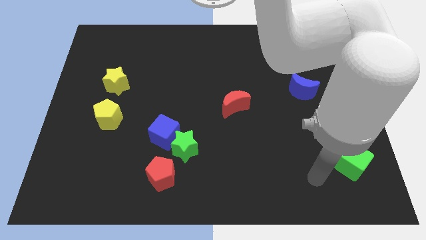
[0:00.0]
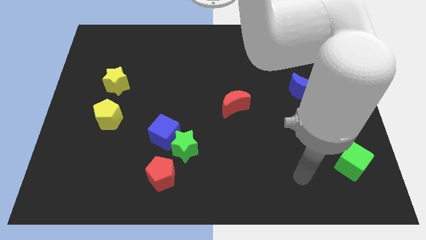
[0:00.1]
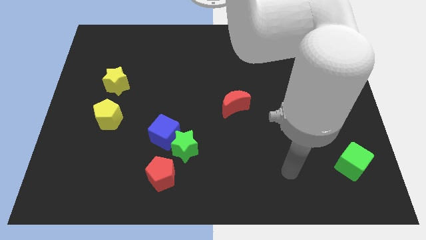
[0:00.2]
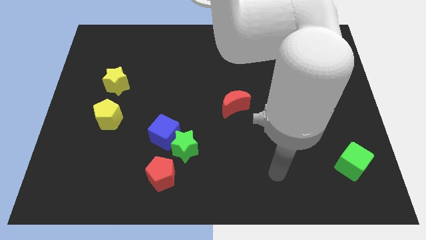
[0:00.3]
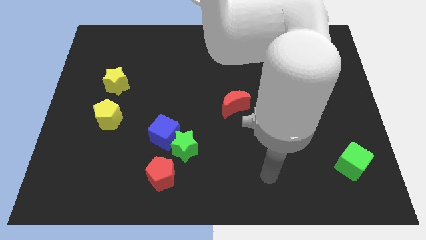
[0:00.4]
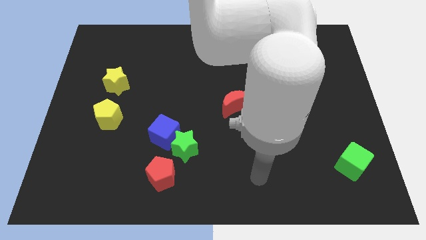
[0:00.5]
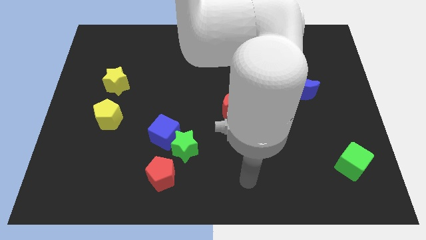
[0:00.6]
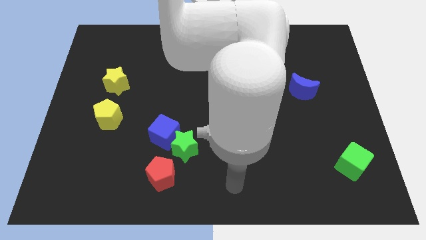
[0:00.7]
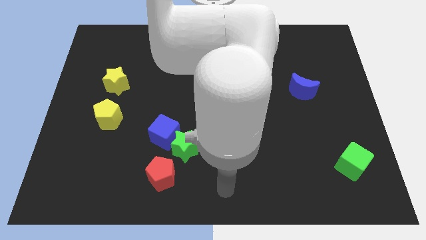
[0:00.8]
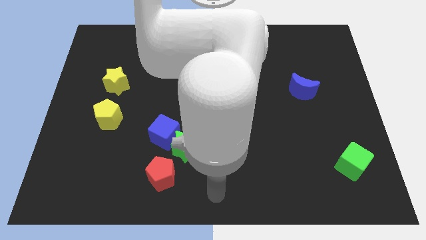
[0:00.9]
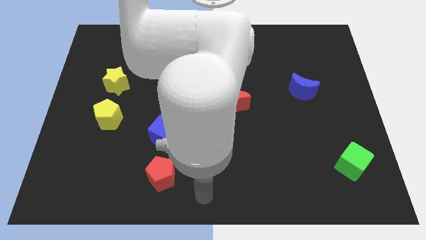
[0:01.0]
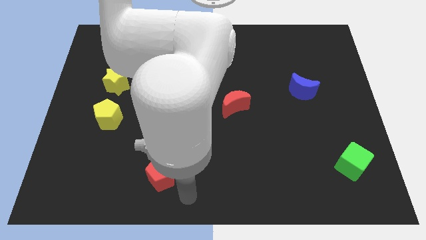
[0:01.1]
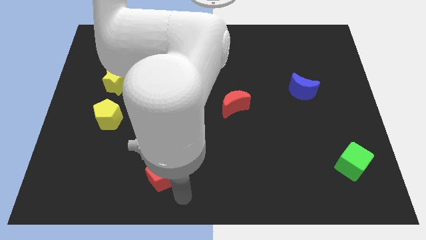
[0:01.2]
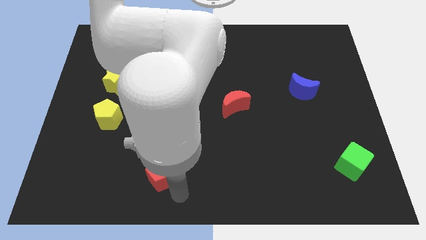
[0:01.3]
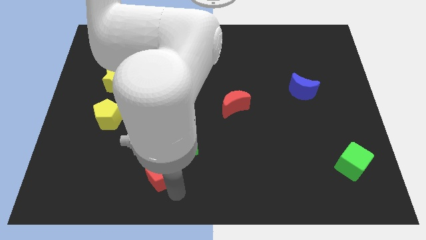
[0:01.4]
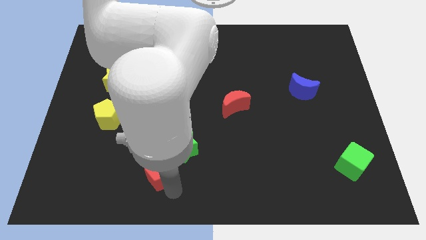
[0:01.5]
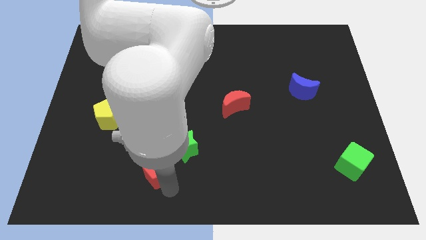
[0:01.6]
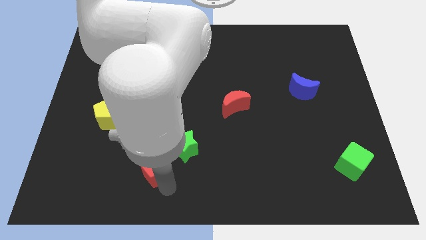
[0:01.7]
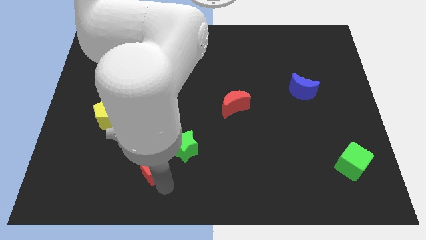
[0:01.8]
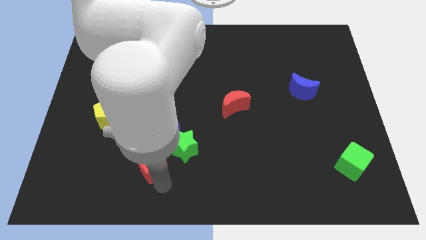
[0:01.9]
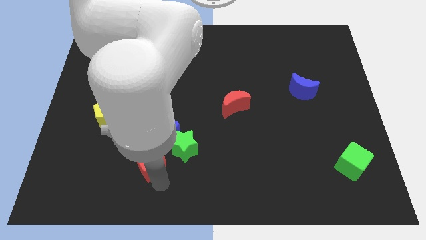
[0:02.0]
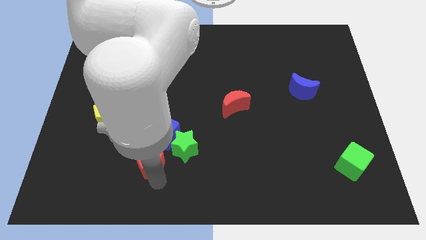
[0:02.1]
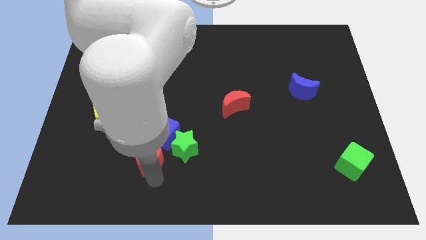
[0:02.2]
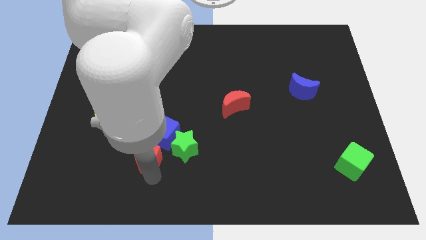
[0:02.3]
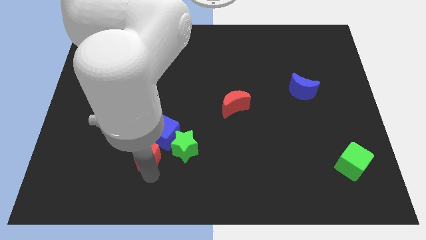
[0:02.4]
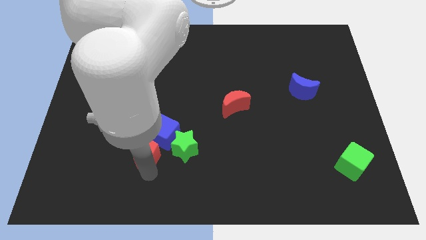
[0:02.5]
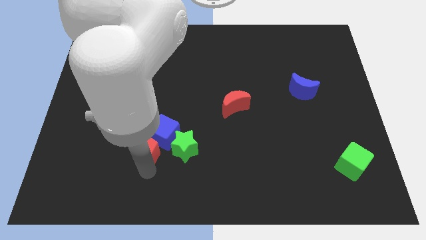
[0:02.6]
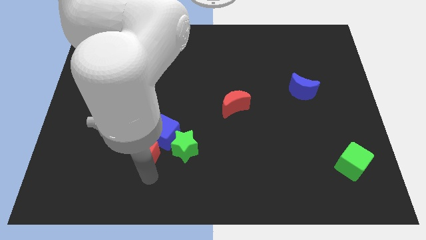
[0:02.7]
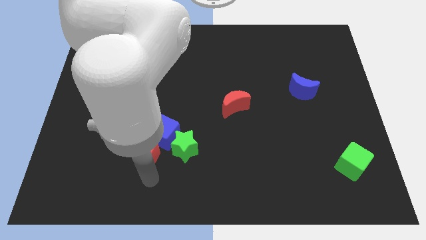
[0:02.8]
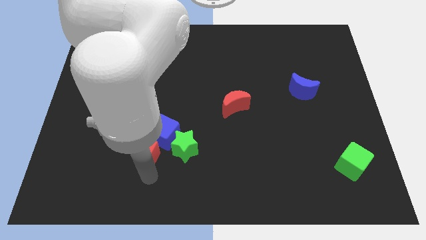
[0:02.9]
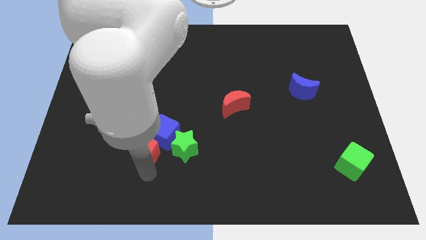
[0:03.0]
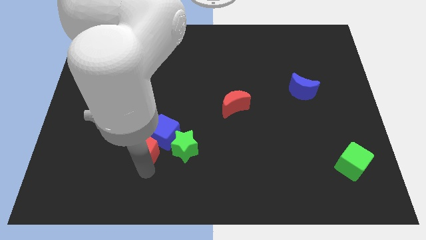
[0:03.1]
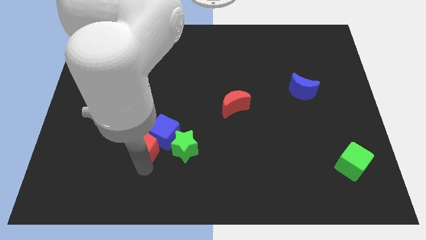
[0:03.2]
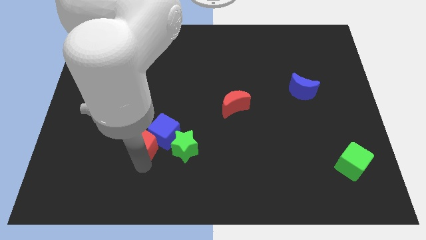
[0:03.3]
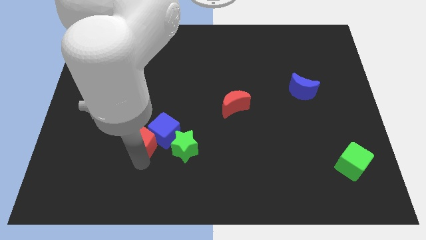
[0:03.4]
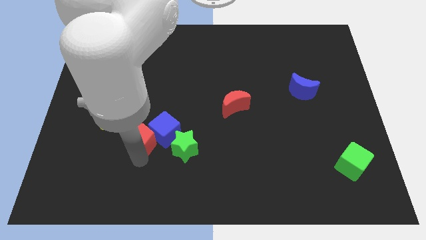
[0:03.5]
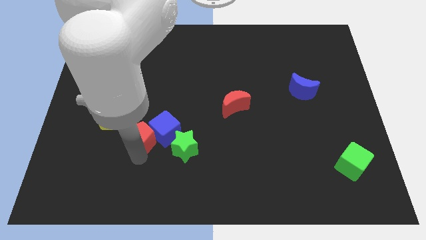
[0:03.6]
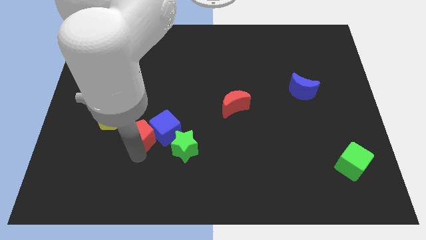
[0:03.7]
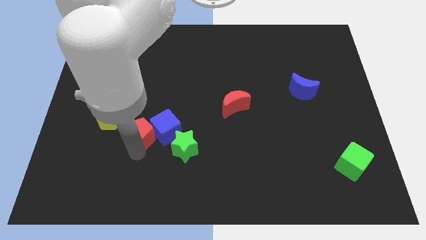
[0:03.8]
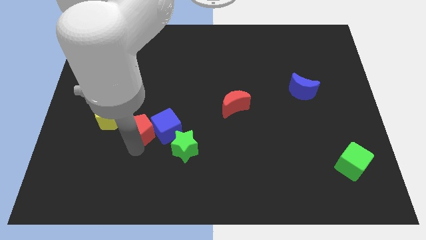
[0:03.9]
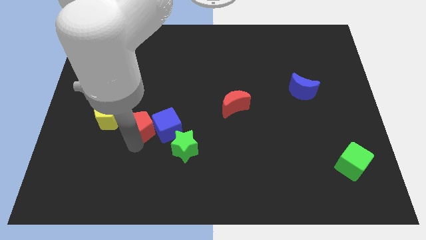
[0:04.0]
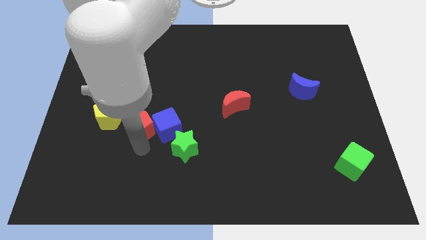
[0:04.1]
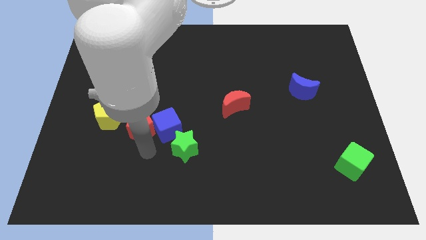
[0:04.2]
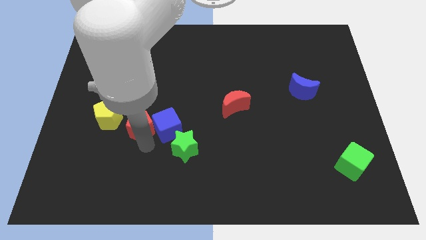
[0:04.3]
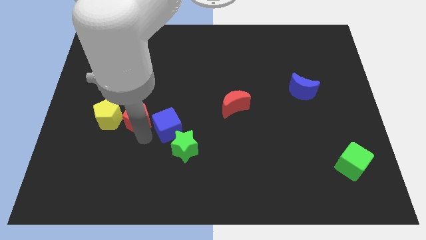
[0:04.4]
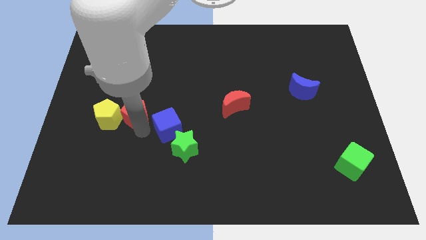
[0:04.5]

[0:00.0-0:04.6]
move the red pentagon to the top right side of the yellow pentagon

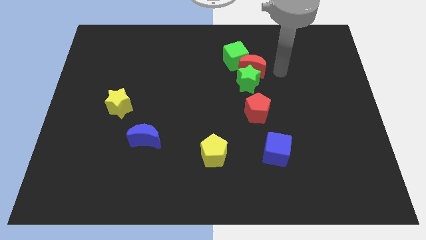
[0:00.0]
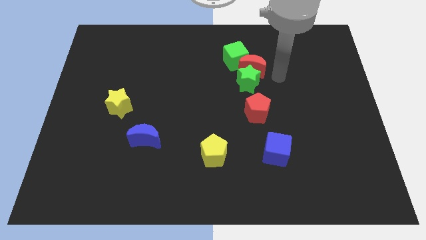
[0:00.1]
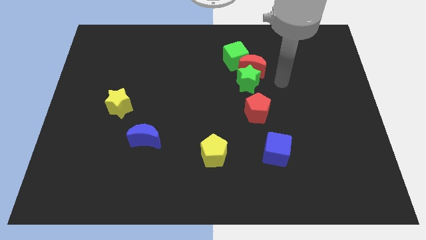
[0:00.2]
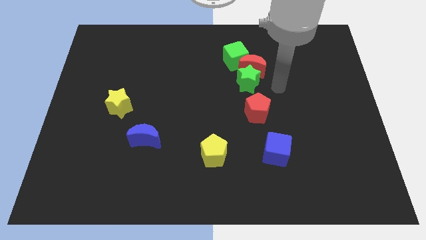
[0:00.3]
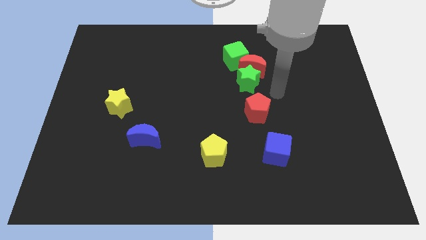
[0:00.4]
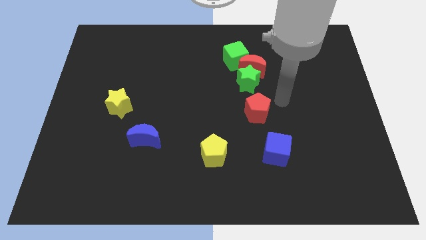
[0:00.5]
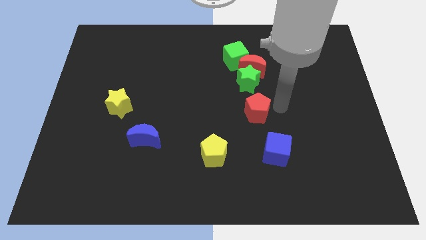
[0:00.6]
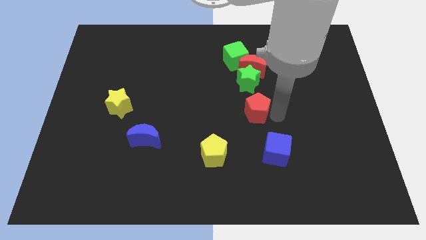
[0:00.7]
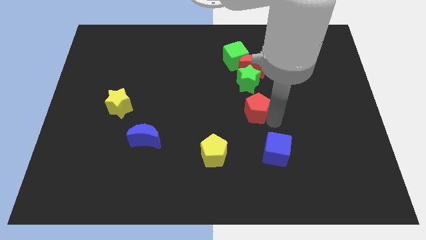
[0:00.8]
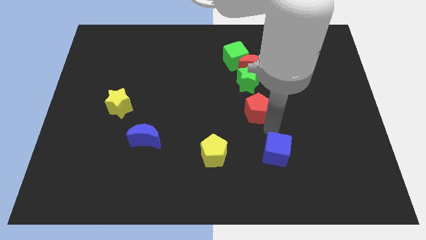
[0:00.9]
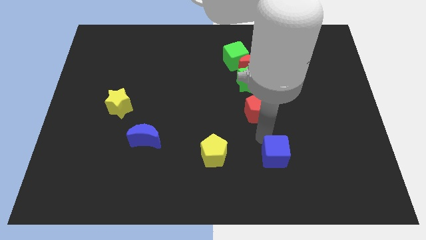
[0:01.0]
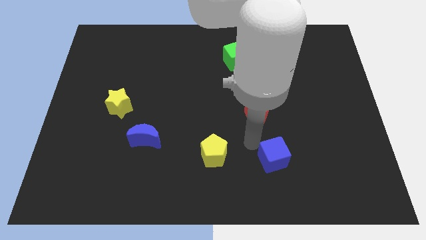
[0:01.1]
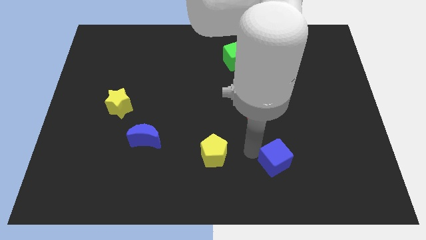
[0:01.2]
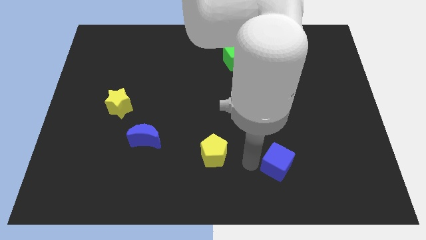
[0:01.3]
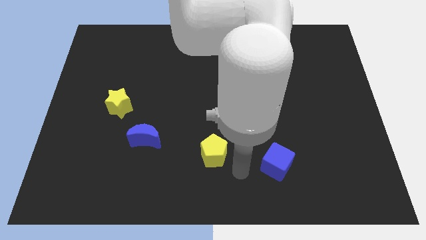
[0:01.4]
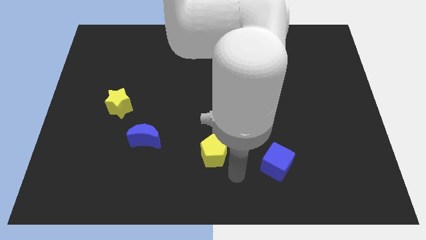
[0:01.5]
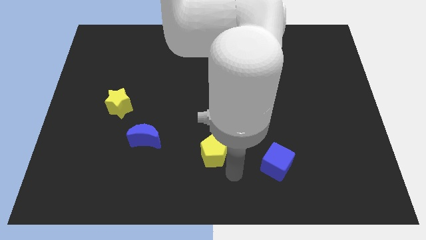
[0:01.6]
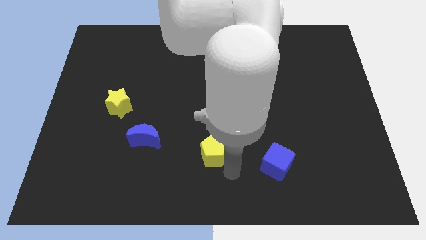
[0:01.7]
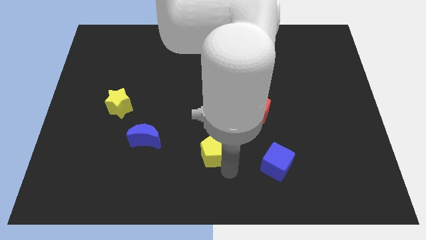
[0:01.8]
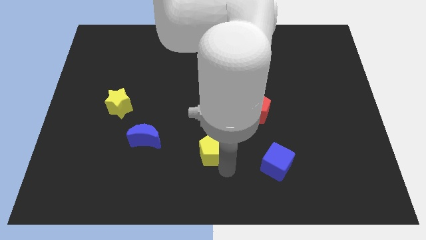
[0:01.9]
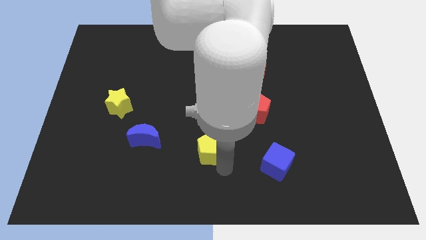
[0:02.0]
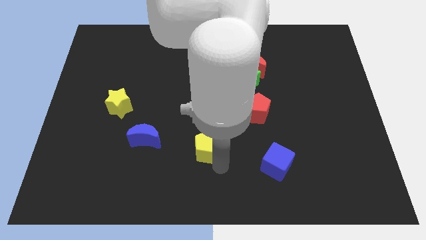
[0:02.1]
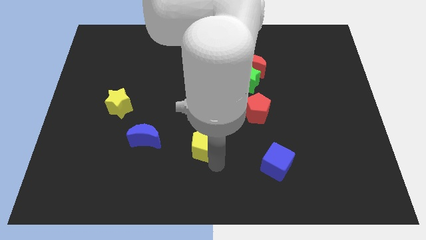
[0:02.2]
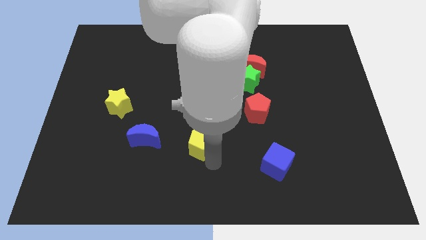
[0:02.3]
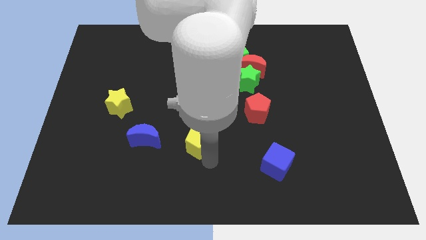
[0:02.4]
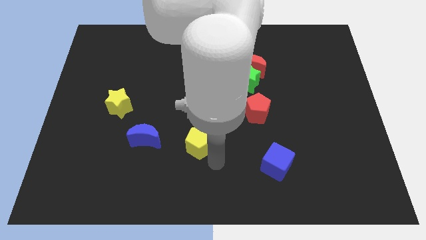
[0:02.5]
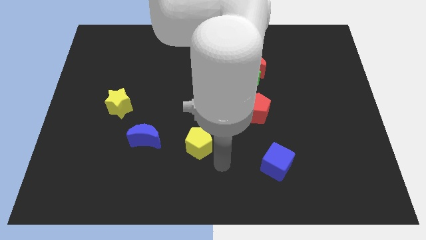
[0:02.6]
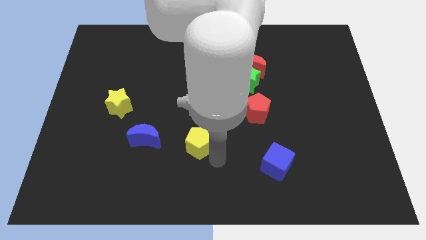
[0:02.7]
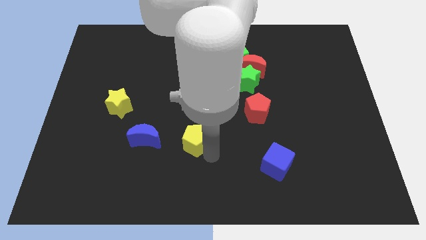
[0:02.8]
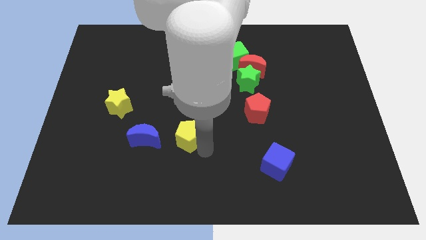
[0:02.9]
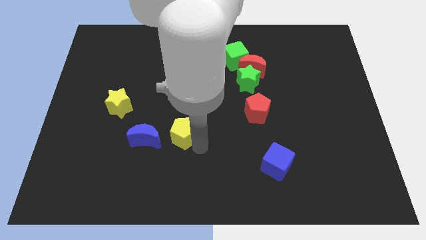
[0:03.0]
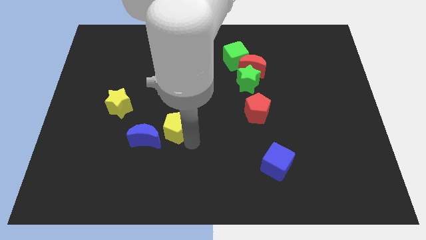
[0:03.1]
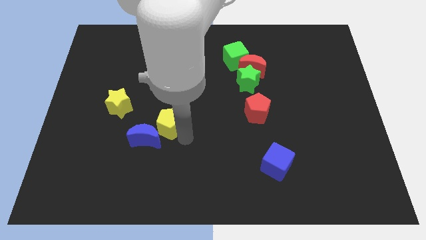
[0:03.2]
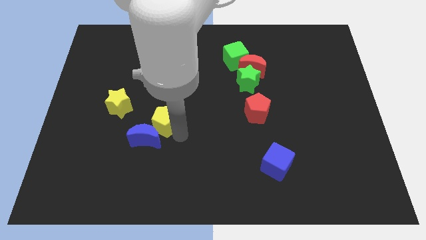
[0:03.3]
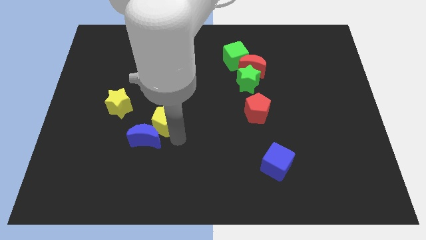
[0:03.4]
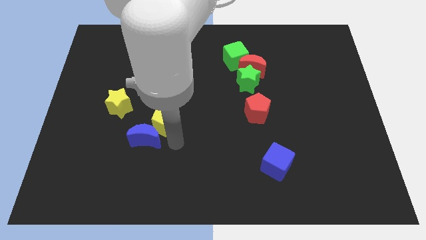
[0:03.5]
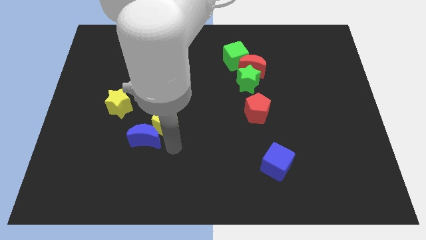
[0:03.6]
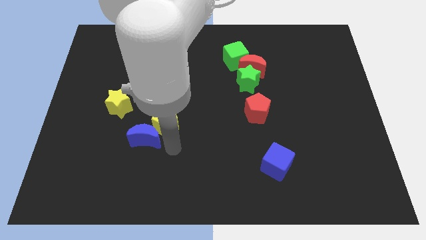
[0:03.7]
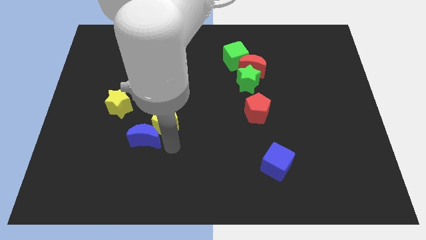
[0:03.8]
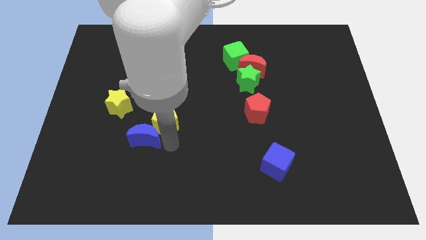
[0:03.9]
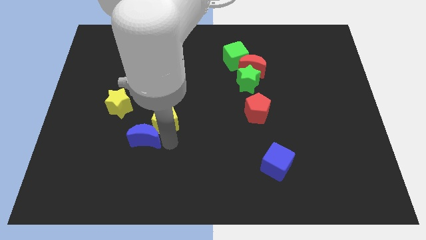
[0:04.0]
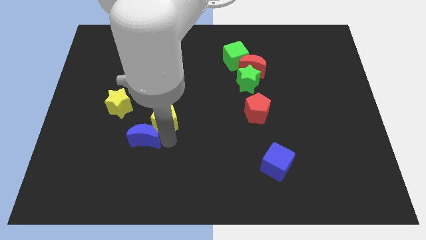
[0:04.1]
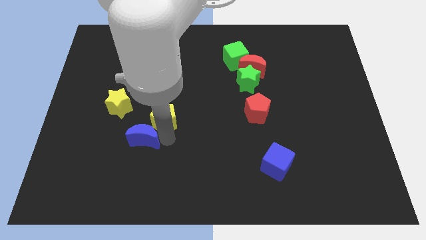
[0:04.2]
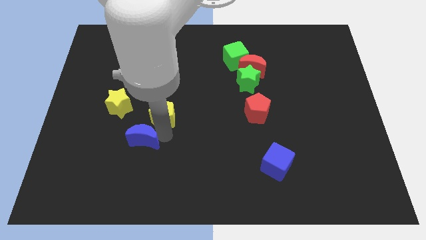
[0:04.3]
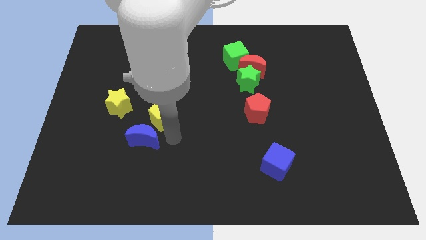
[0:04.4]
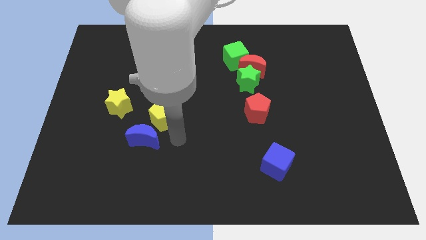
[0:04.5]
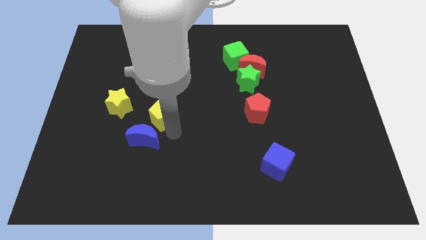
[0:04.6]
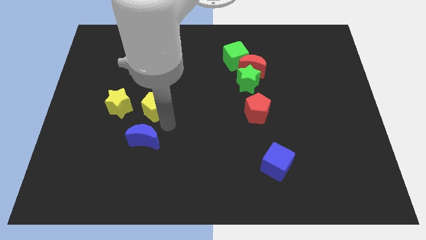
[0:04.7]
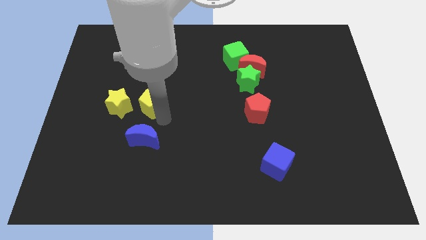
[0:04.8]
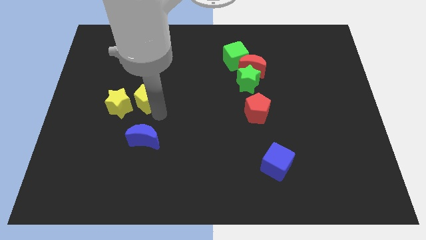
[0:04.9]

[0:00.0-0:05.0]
slide the yellow pentagon to the top right side of the yellow star
